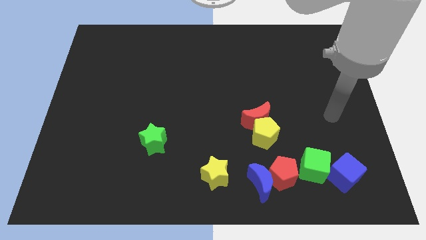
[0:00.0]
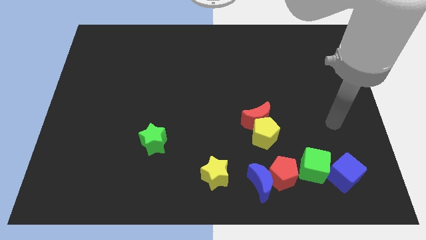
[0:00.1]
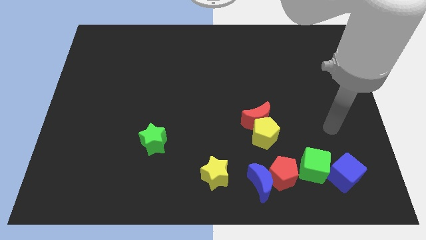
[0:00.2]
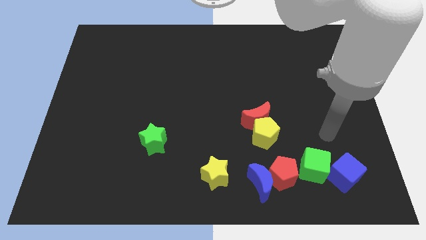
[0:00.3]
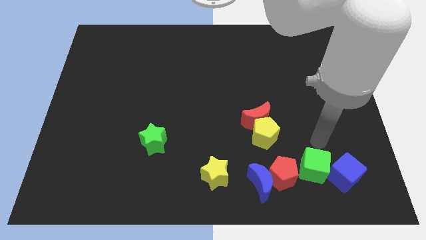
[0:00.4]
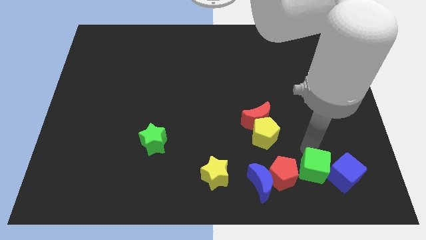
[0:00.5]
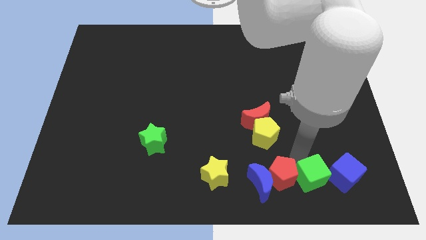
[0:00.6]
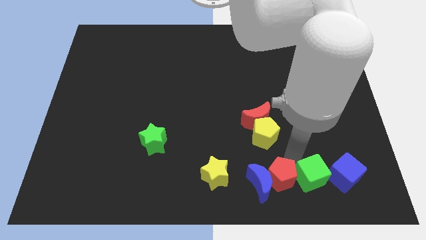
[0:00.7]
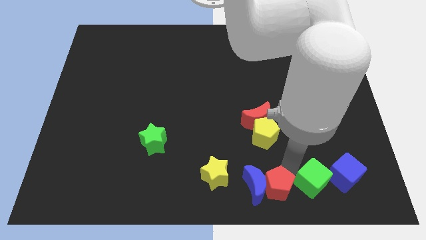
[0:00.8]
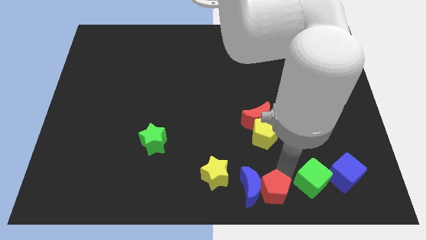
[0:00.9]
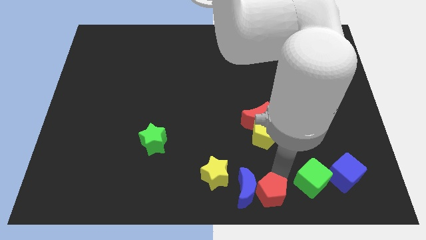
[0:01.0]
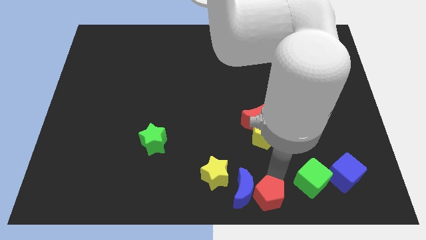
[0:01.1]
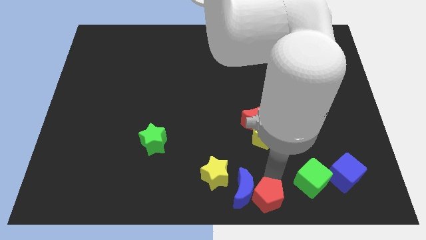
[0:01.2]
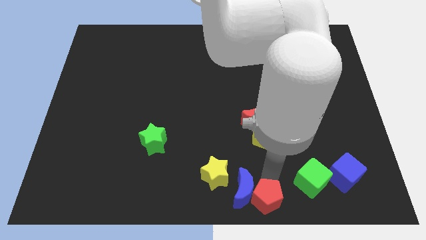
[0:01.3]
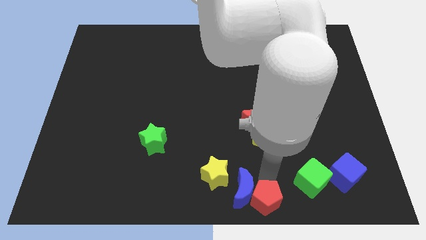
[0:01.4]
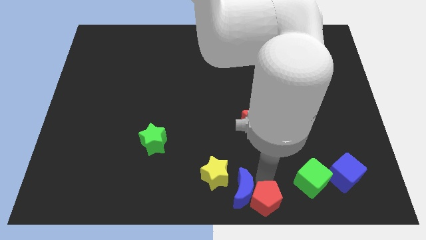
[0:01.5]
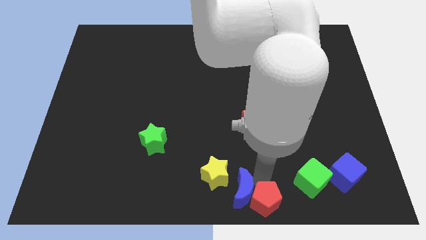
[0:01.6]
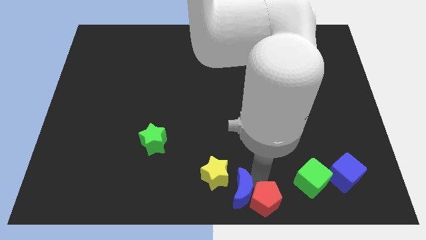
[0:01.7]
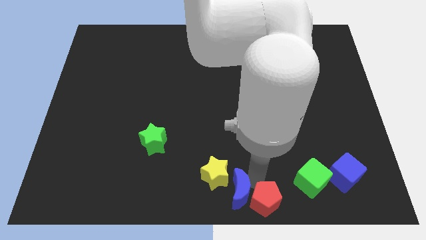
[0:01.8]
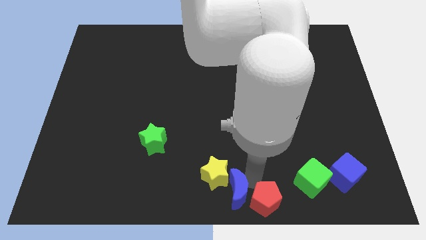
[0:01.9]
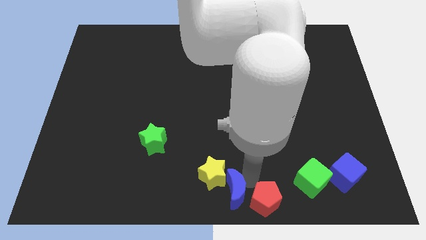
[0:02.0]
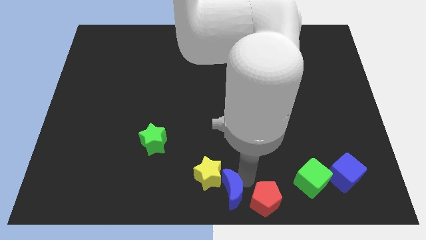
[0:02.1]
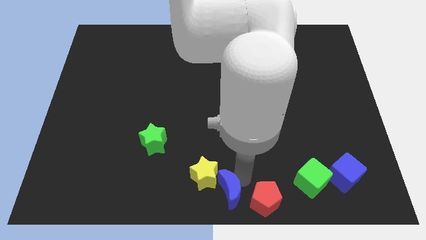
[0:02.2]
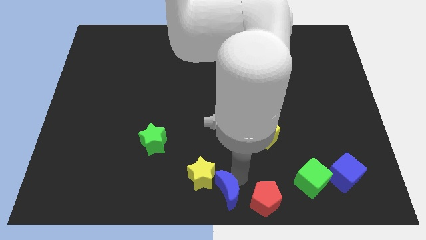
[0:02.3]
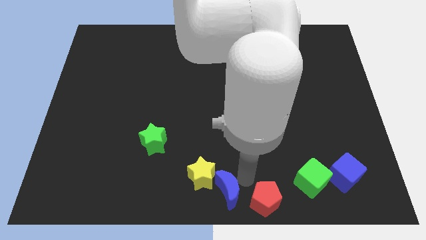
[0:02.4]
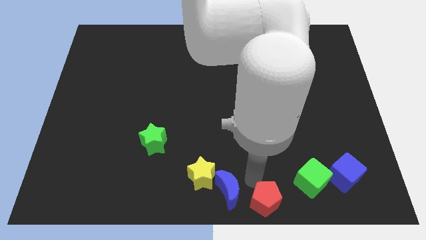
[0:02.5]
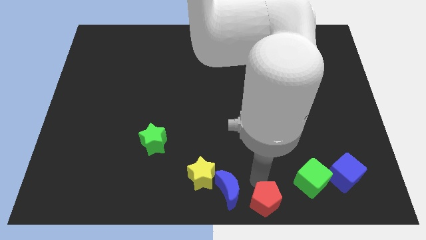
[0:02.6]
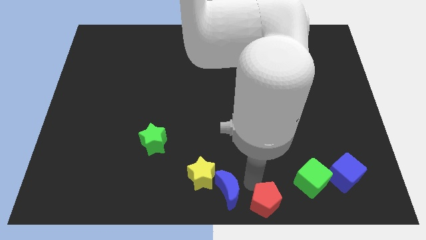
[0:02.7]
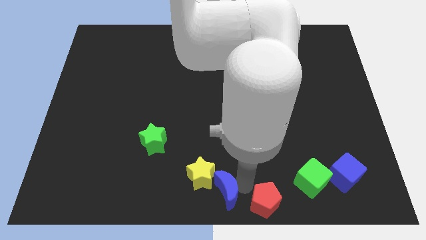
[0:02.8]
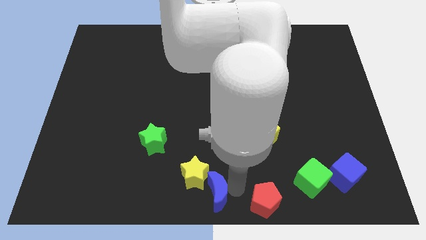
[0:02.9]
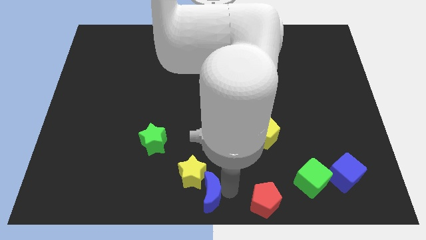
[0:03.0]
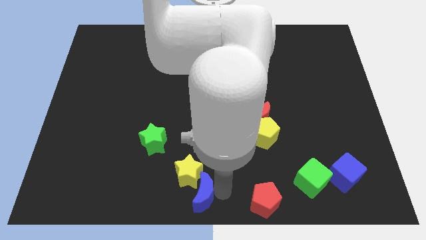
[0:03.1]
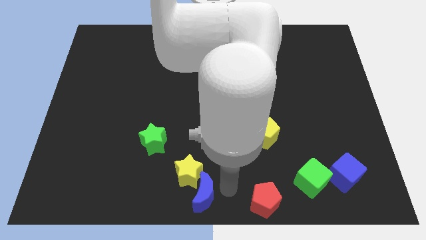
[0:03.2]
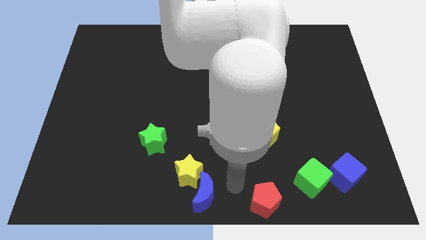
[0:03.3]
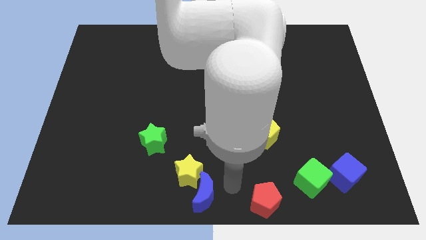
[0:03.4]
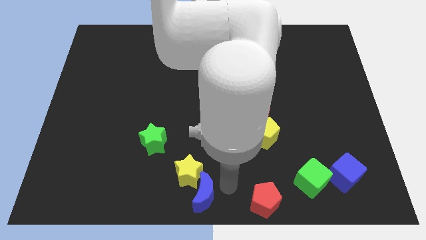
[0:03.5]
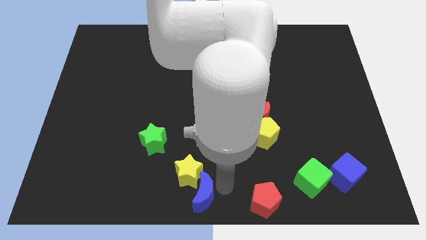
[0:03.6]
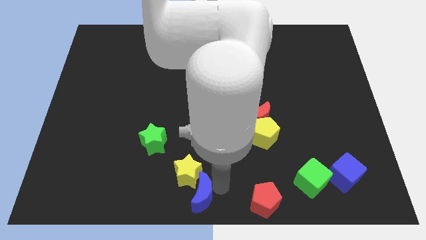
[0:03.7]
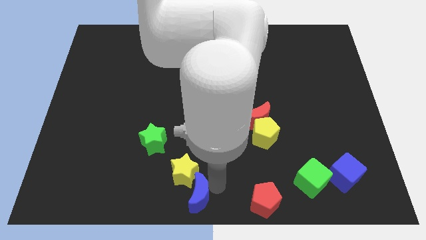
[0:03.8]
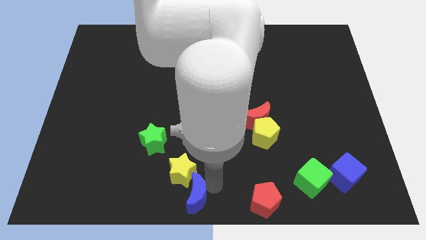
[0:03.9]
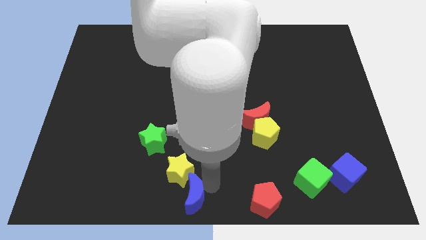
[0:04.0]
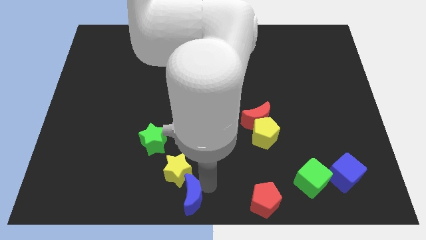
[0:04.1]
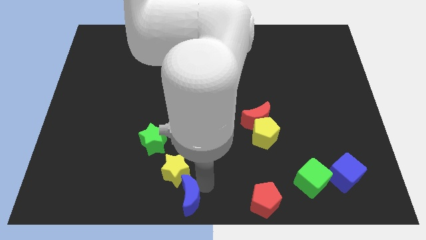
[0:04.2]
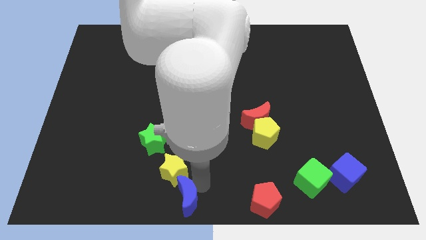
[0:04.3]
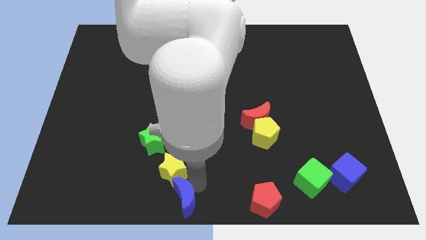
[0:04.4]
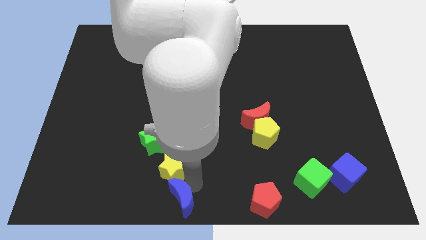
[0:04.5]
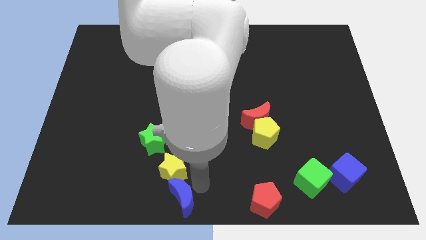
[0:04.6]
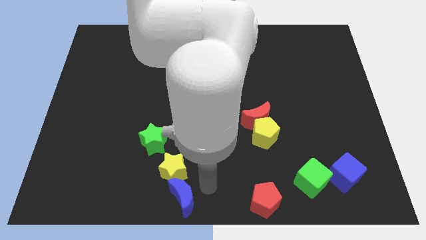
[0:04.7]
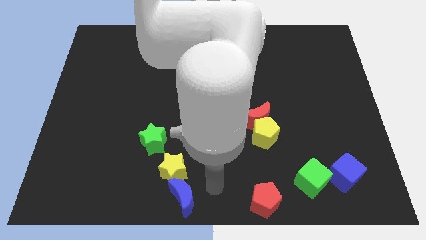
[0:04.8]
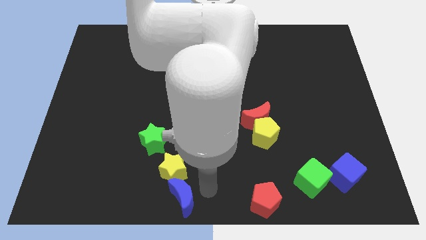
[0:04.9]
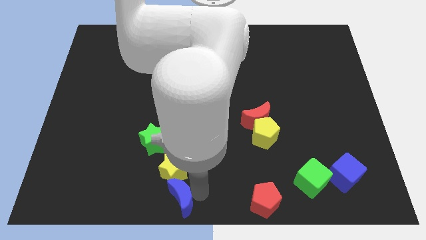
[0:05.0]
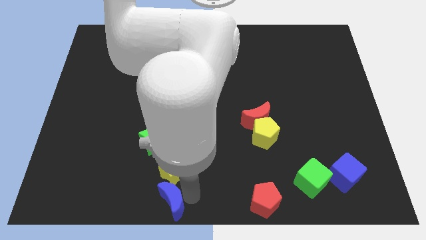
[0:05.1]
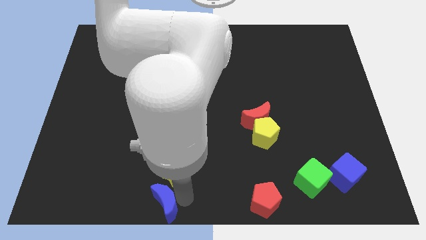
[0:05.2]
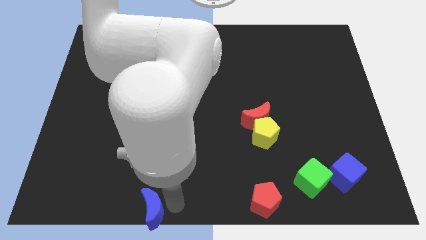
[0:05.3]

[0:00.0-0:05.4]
slide the blue moon to the left

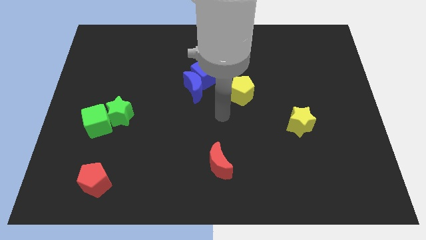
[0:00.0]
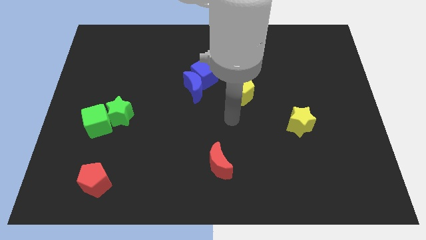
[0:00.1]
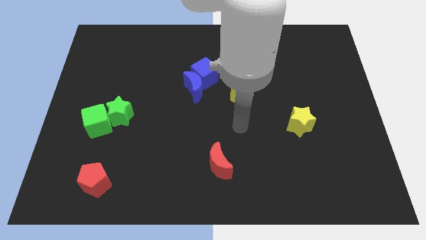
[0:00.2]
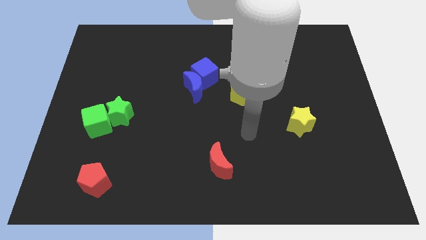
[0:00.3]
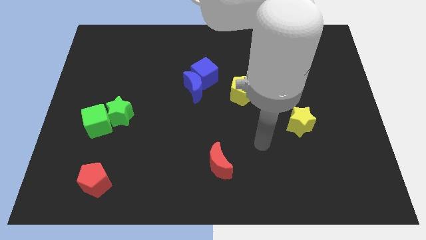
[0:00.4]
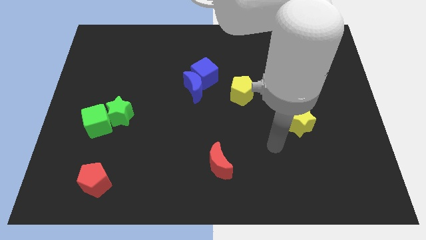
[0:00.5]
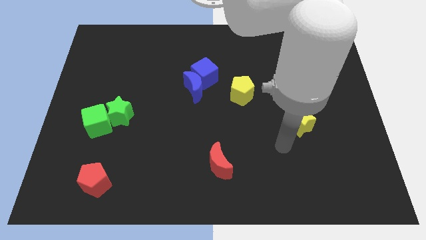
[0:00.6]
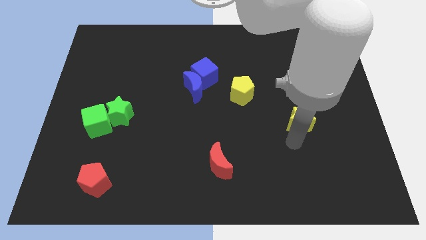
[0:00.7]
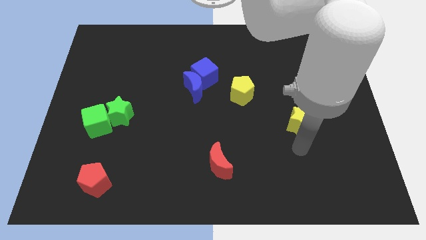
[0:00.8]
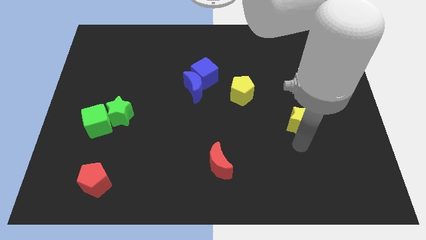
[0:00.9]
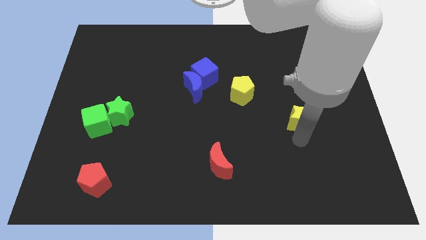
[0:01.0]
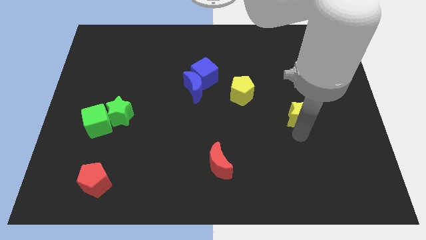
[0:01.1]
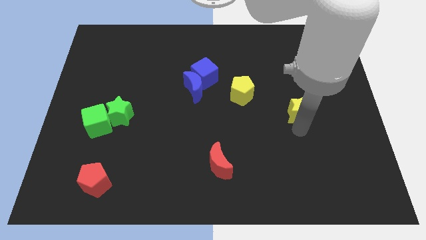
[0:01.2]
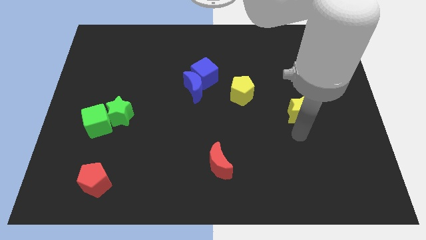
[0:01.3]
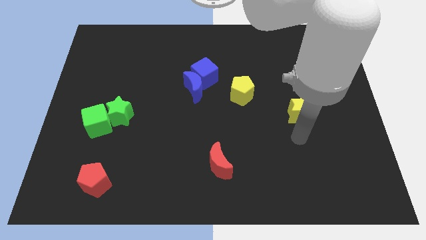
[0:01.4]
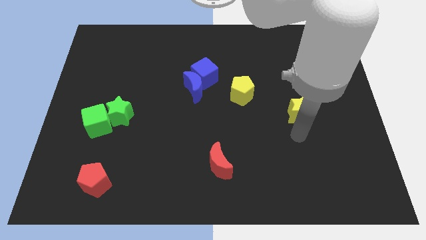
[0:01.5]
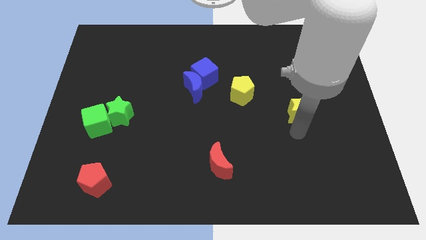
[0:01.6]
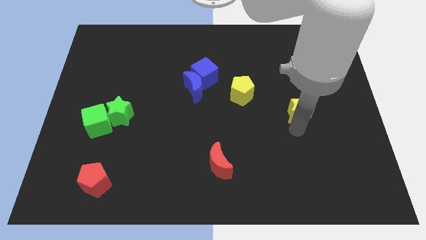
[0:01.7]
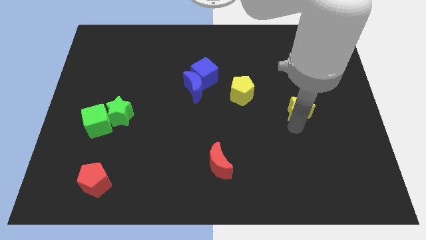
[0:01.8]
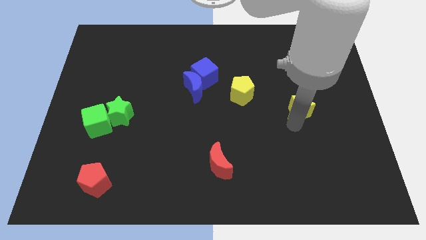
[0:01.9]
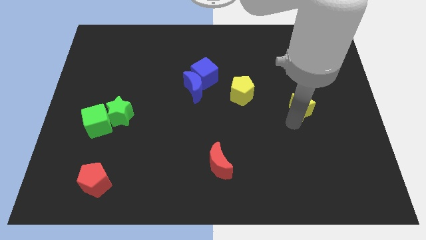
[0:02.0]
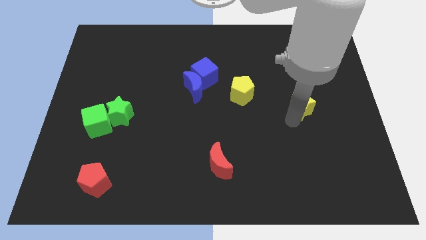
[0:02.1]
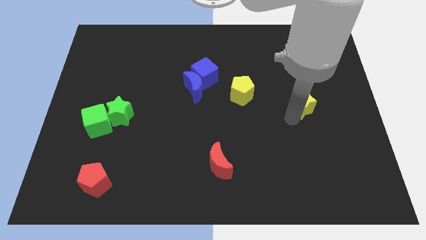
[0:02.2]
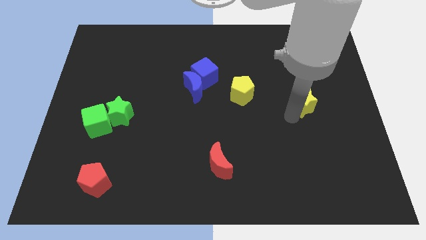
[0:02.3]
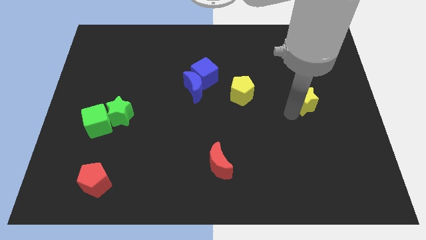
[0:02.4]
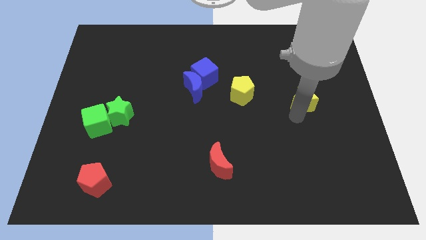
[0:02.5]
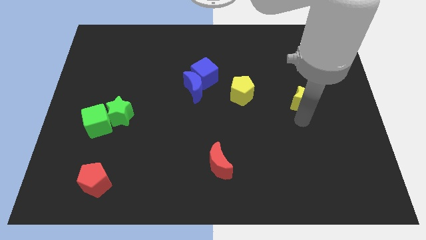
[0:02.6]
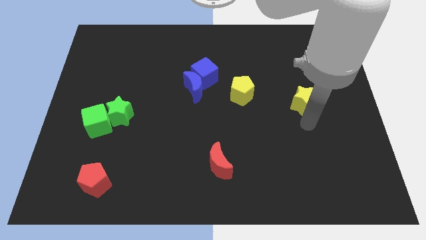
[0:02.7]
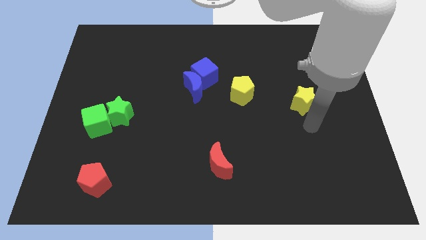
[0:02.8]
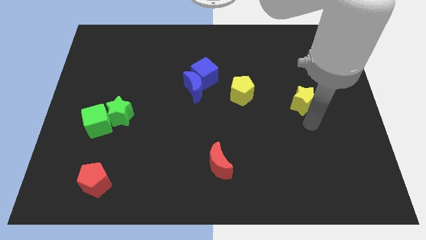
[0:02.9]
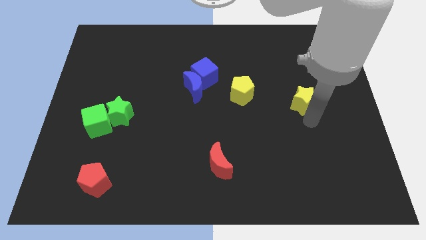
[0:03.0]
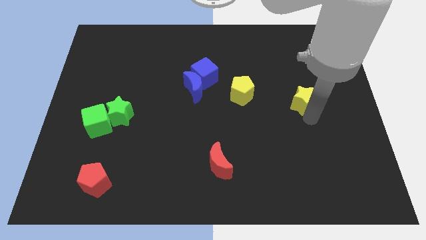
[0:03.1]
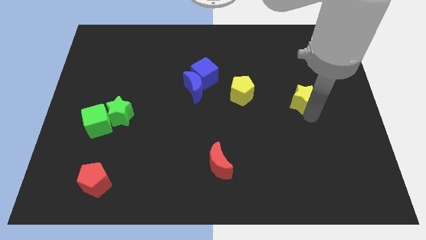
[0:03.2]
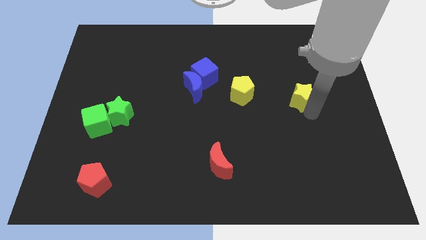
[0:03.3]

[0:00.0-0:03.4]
push the yellow star a little upwards
